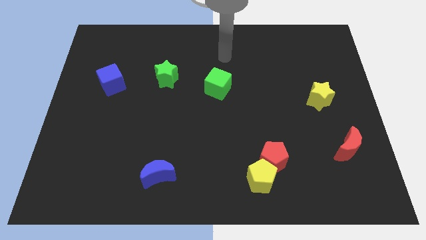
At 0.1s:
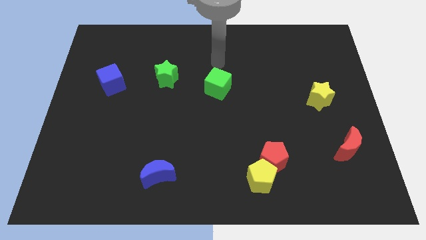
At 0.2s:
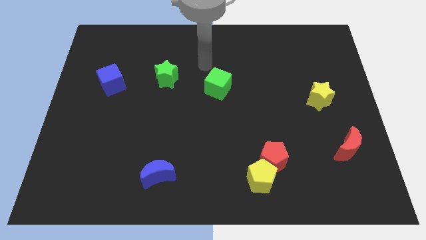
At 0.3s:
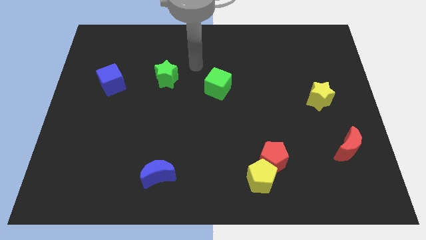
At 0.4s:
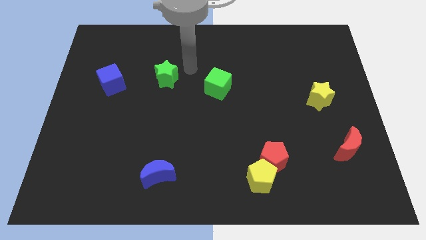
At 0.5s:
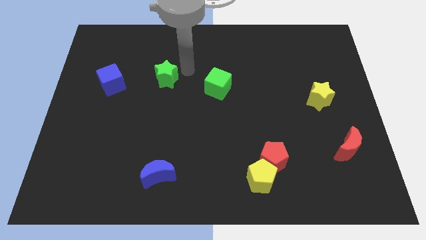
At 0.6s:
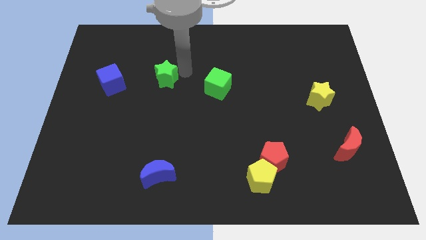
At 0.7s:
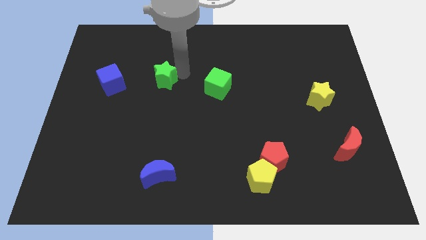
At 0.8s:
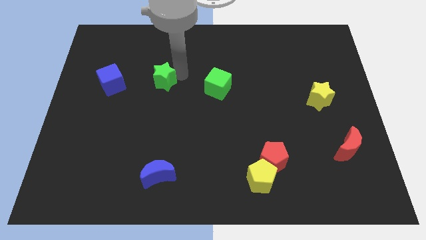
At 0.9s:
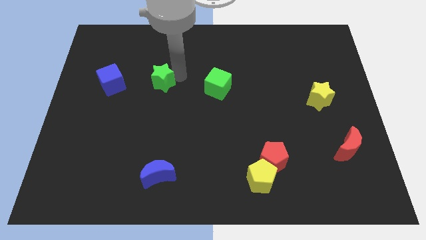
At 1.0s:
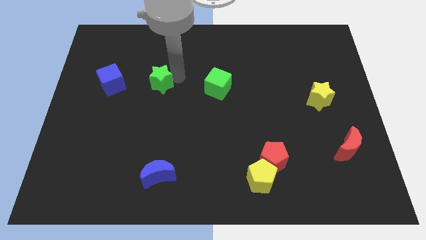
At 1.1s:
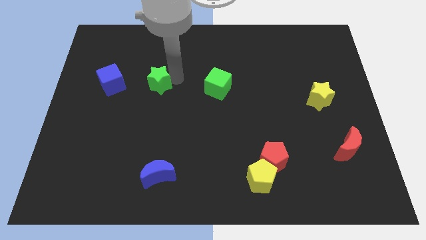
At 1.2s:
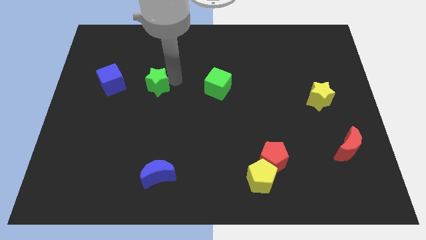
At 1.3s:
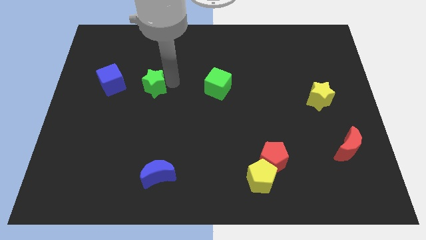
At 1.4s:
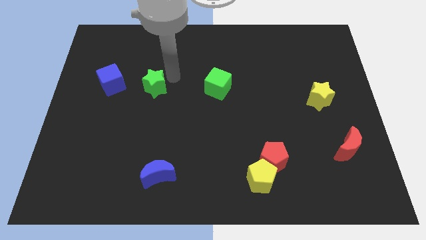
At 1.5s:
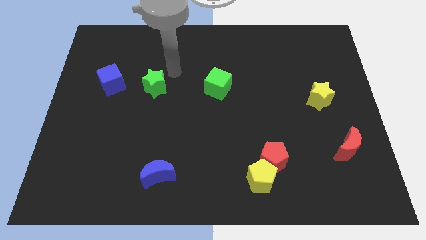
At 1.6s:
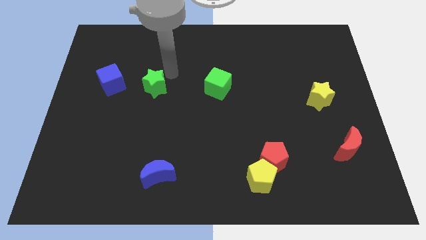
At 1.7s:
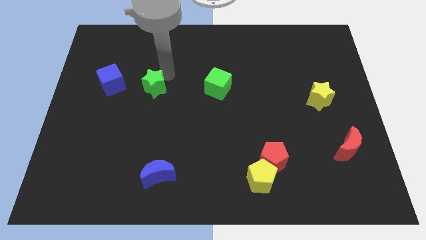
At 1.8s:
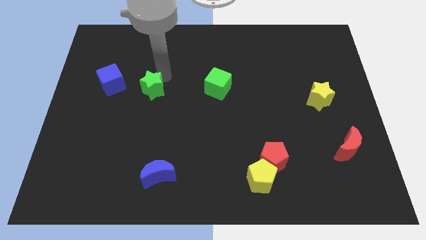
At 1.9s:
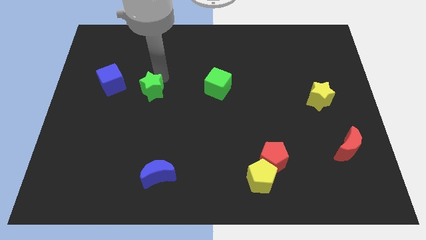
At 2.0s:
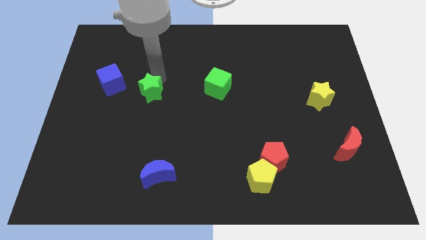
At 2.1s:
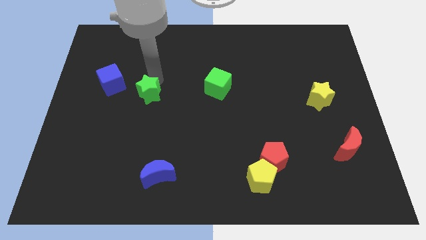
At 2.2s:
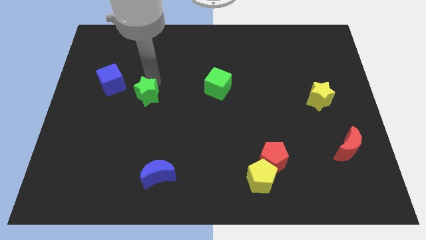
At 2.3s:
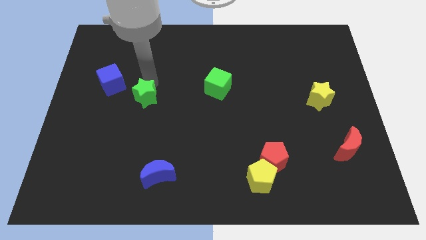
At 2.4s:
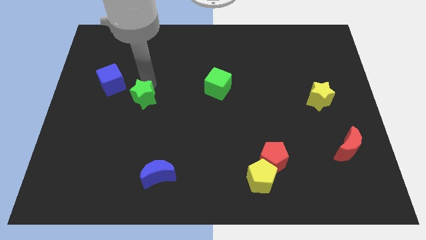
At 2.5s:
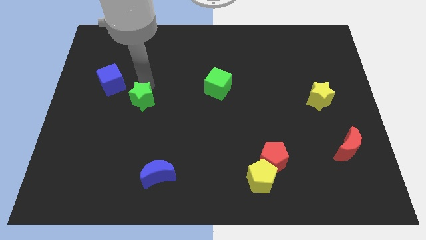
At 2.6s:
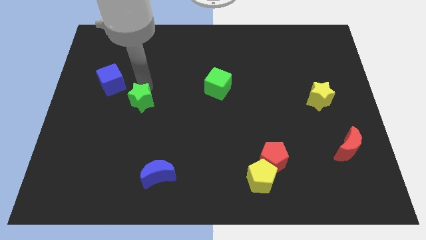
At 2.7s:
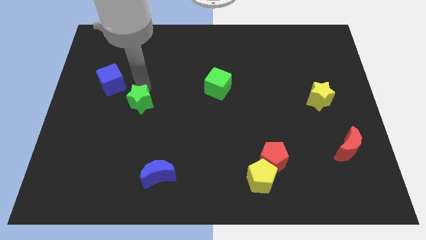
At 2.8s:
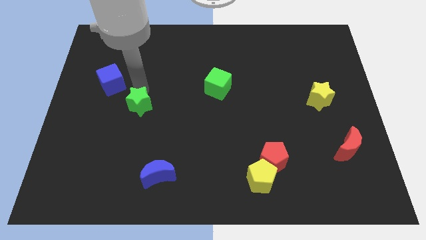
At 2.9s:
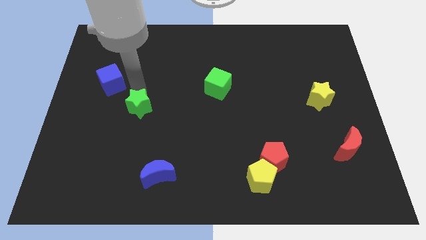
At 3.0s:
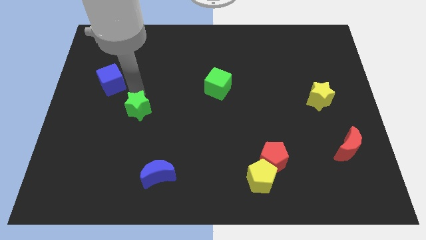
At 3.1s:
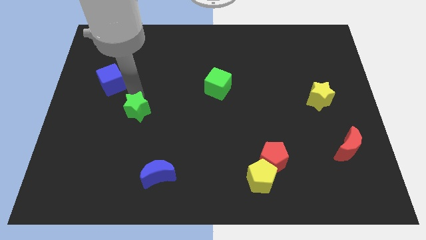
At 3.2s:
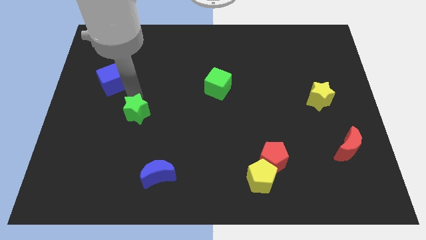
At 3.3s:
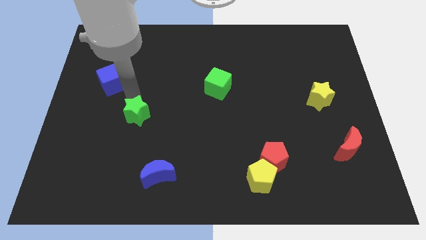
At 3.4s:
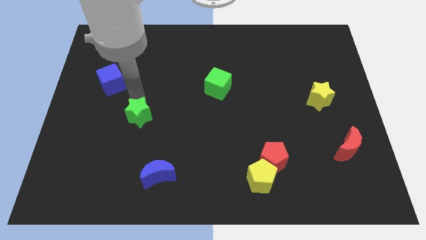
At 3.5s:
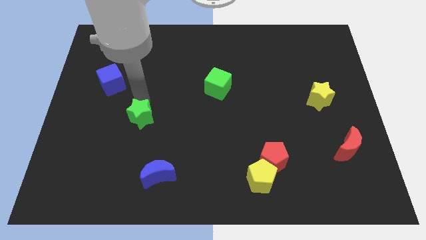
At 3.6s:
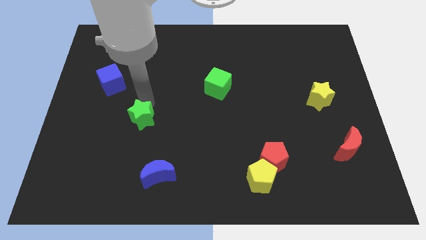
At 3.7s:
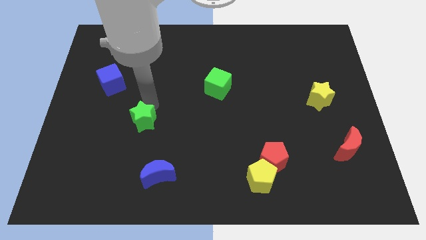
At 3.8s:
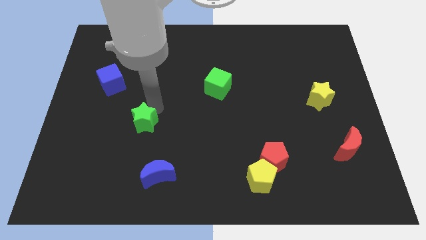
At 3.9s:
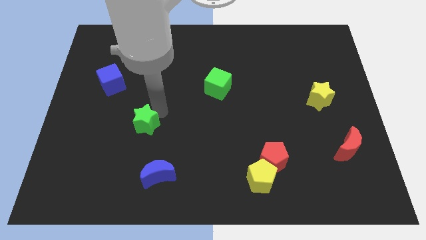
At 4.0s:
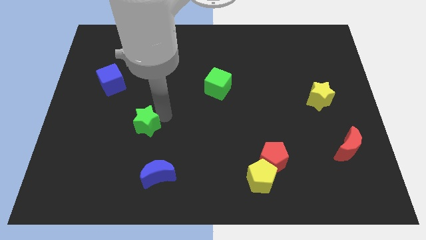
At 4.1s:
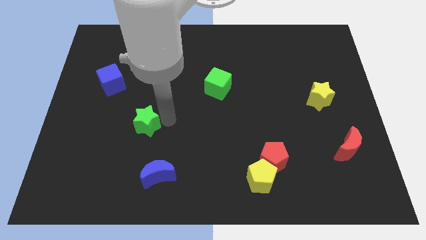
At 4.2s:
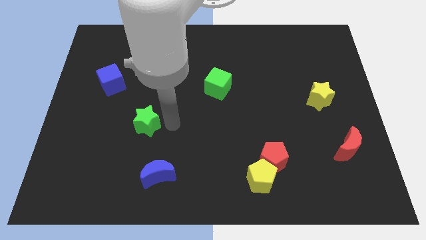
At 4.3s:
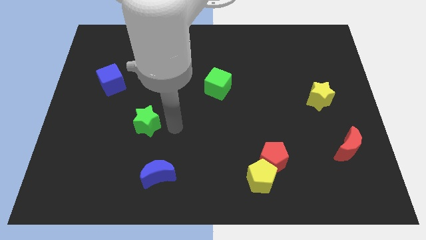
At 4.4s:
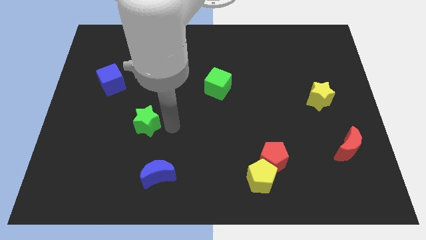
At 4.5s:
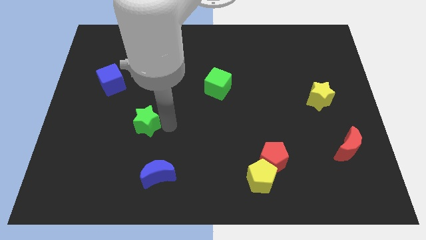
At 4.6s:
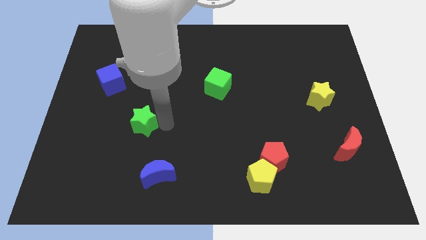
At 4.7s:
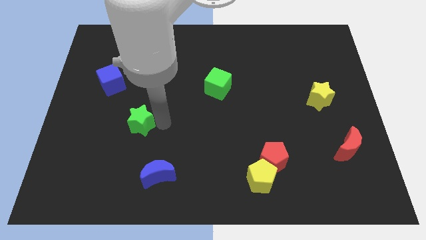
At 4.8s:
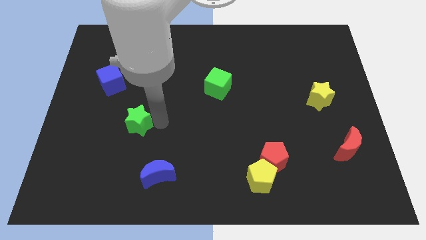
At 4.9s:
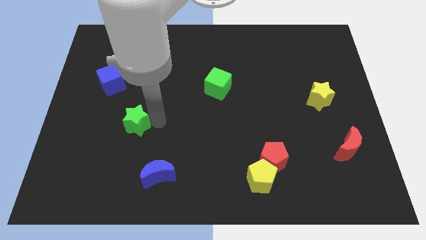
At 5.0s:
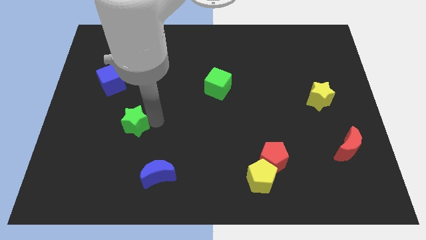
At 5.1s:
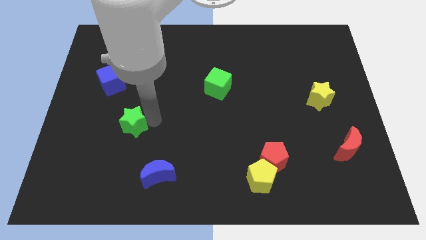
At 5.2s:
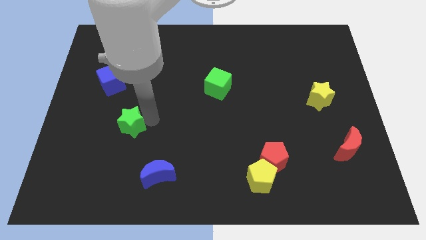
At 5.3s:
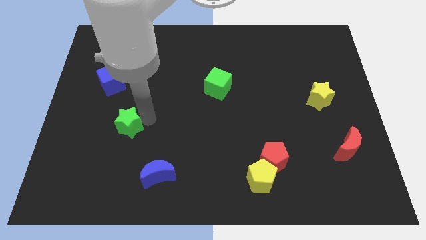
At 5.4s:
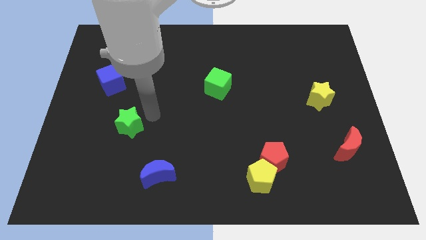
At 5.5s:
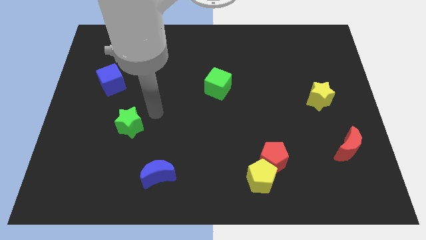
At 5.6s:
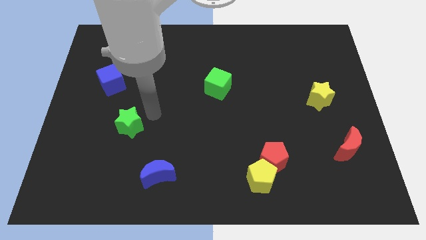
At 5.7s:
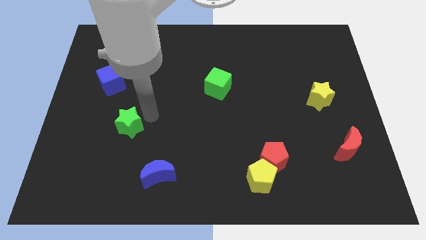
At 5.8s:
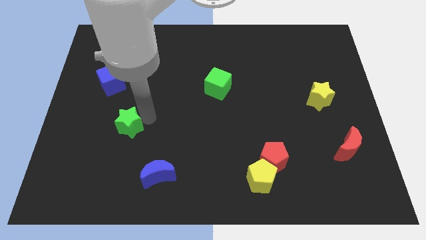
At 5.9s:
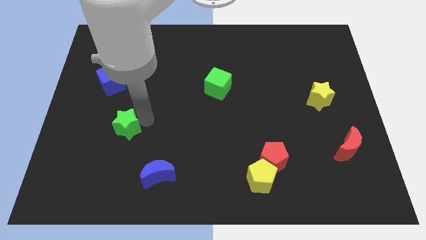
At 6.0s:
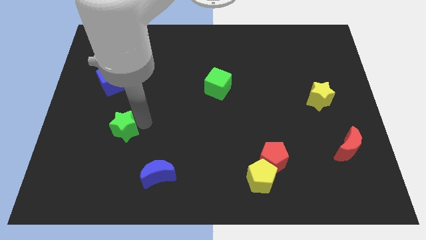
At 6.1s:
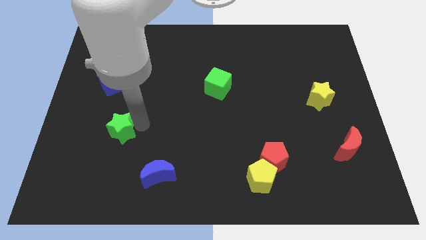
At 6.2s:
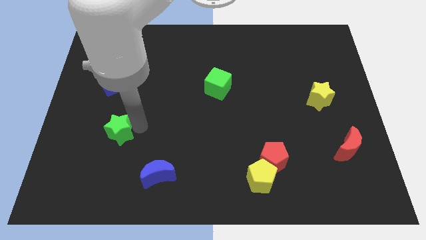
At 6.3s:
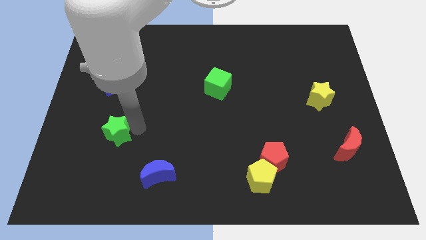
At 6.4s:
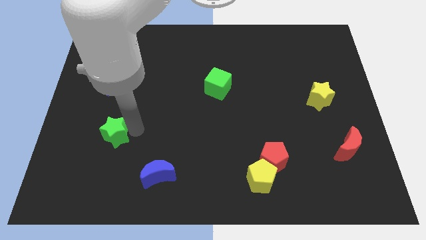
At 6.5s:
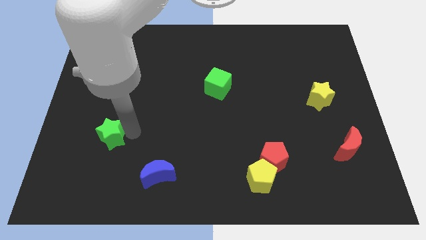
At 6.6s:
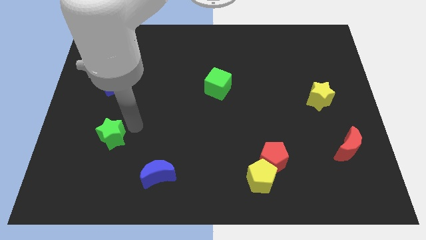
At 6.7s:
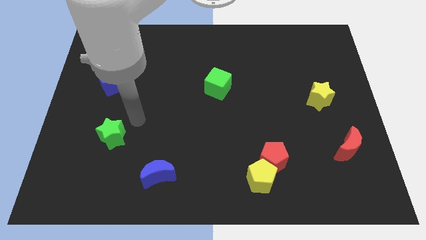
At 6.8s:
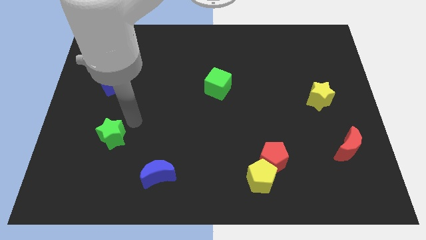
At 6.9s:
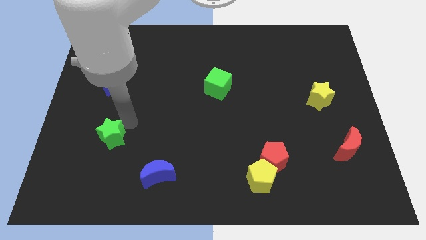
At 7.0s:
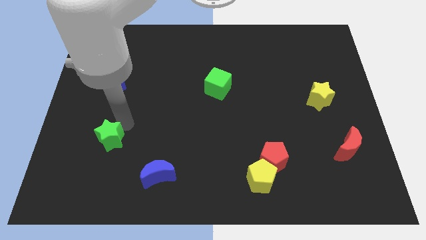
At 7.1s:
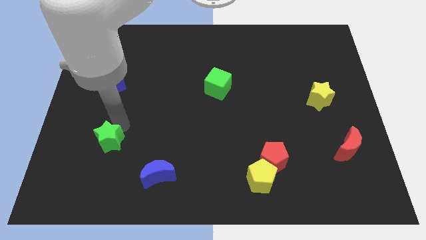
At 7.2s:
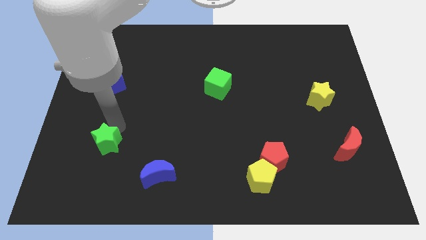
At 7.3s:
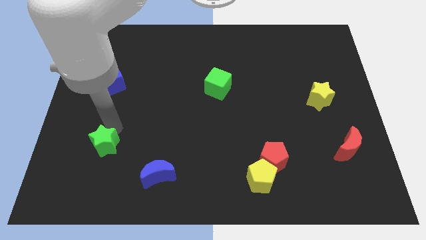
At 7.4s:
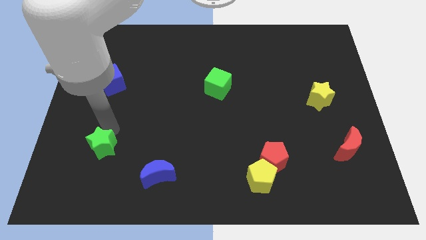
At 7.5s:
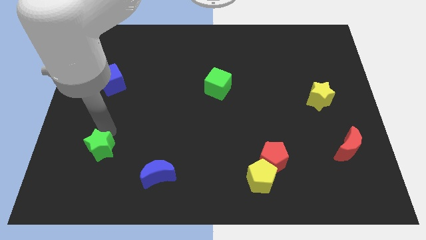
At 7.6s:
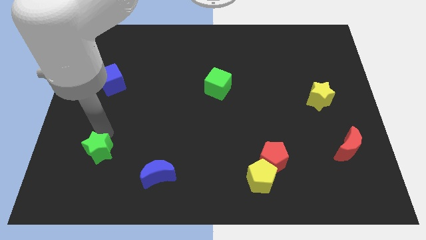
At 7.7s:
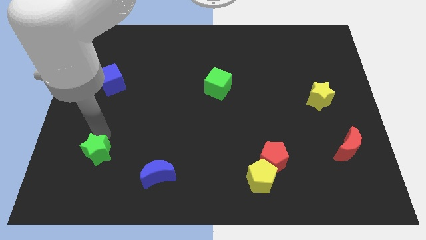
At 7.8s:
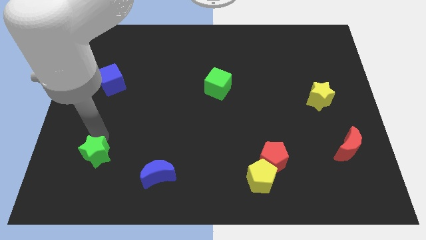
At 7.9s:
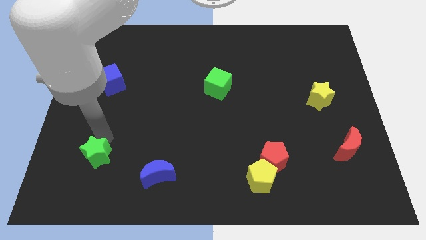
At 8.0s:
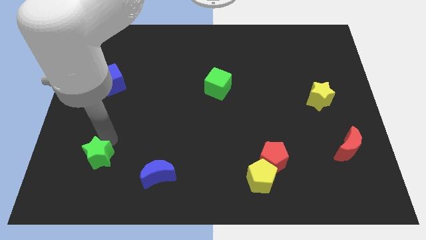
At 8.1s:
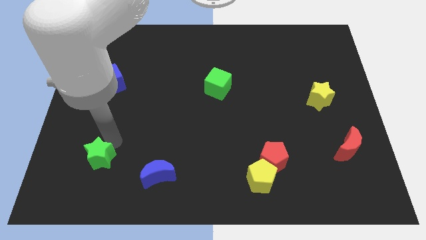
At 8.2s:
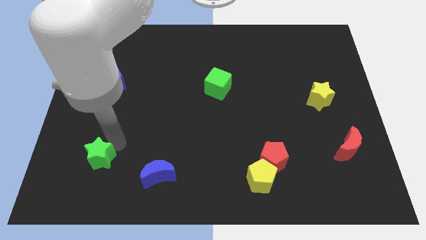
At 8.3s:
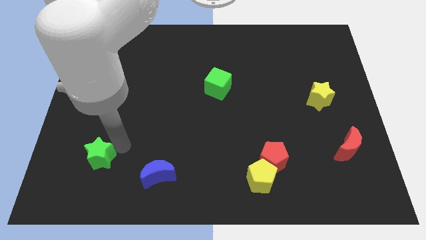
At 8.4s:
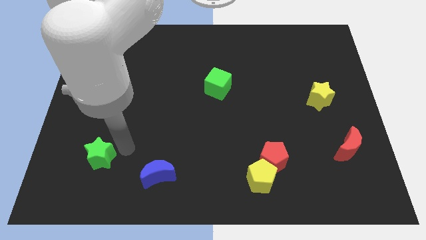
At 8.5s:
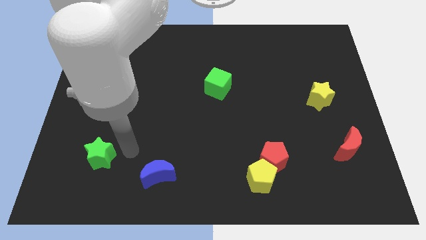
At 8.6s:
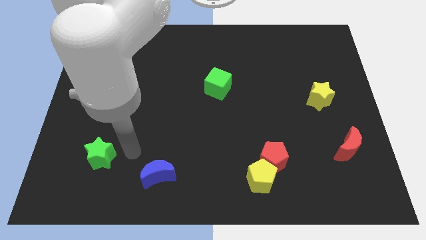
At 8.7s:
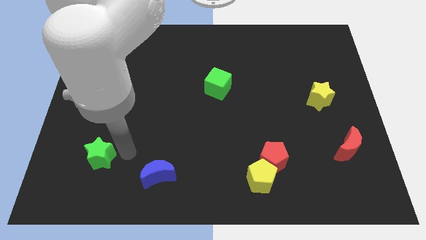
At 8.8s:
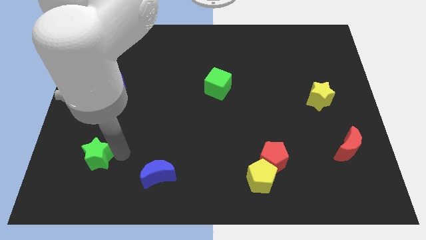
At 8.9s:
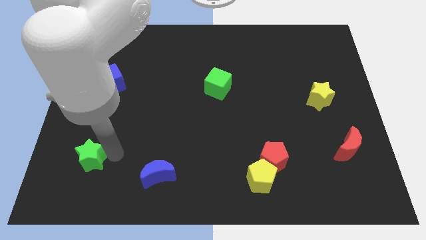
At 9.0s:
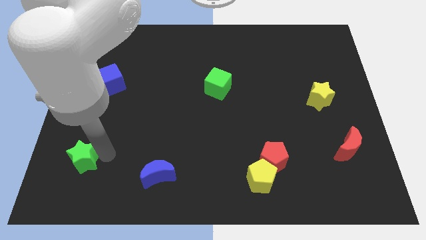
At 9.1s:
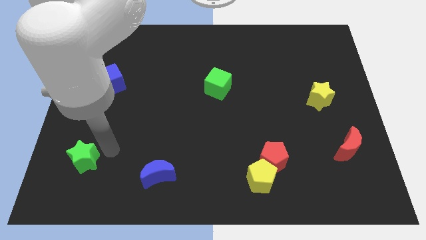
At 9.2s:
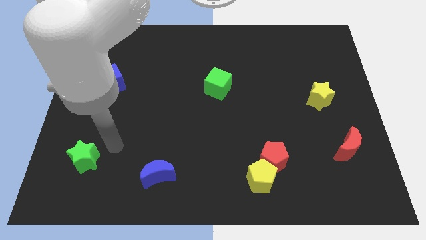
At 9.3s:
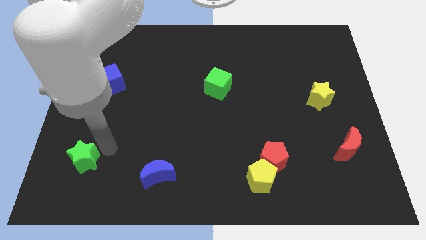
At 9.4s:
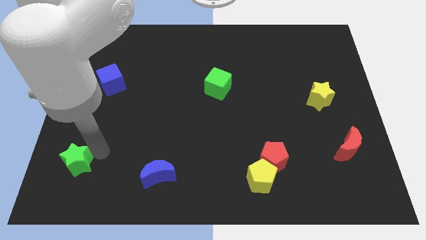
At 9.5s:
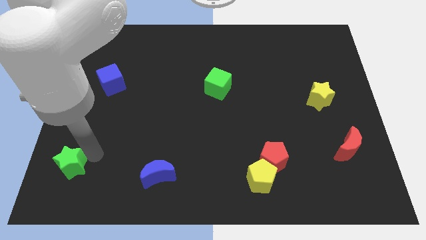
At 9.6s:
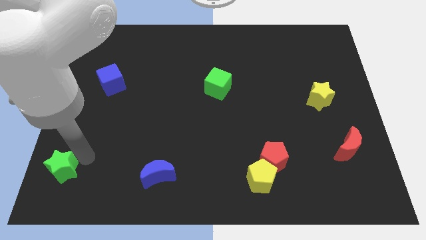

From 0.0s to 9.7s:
slide the green star to the bottom left of the board
